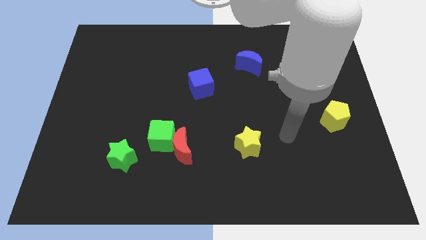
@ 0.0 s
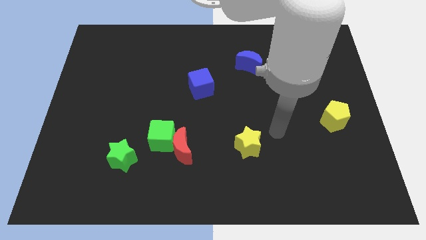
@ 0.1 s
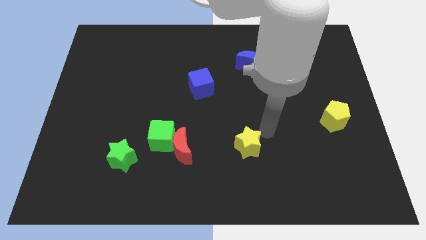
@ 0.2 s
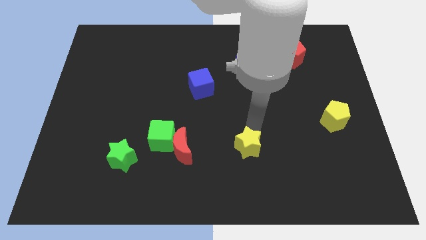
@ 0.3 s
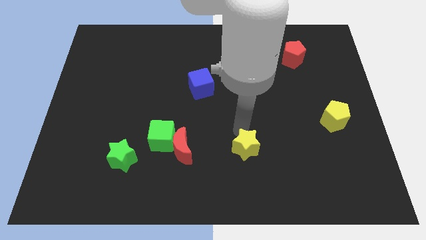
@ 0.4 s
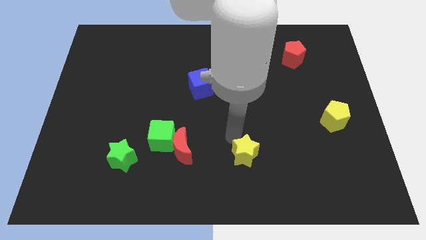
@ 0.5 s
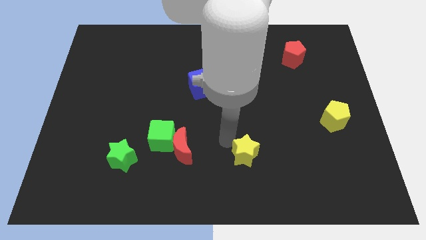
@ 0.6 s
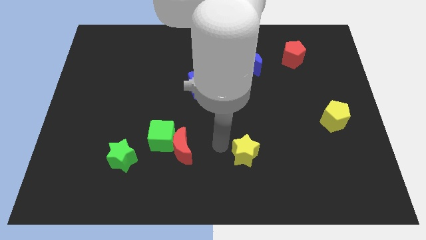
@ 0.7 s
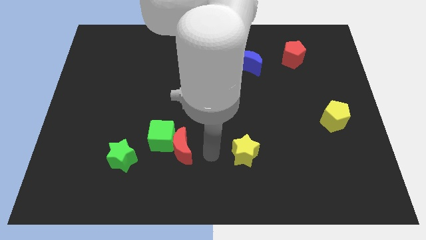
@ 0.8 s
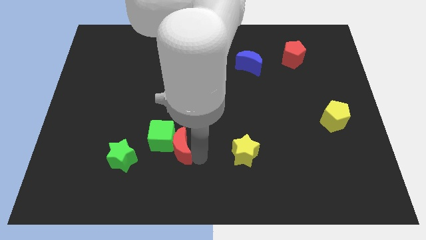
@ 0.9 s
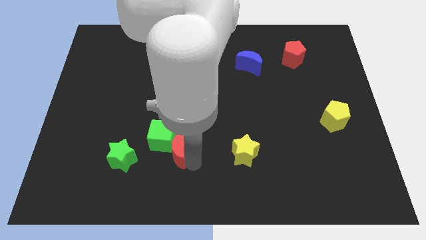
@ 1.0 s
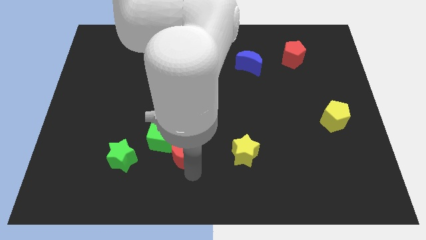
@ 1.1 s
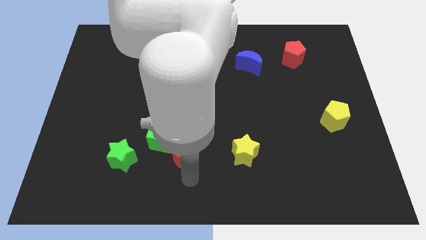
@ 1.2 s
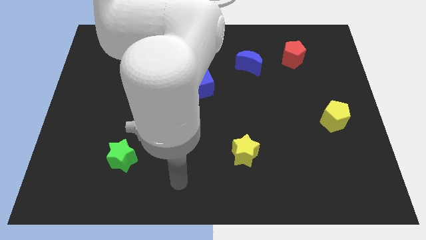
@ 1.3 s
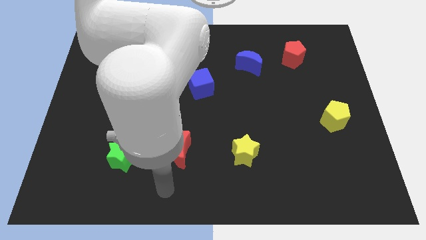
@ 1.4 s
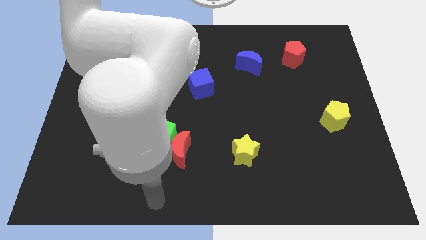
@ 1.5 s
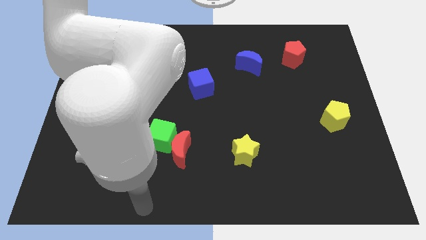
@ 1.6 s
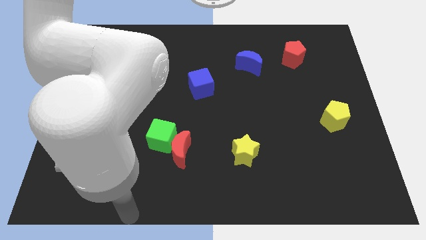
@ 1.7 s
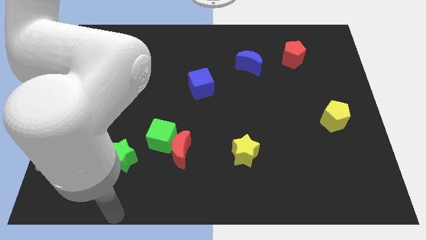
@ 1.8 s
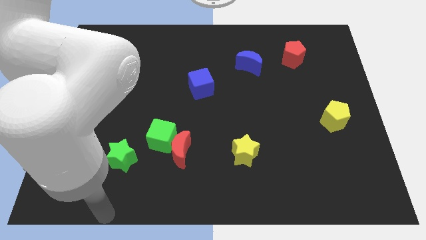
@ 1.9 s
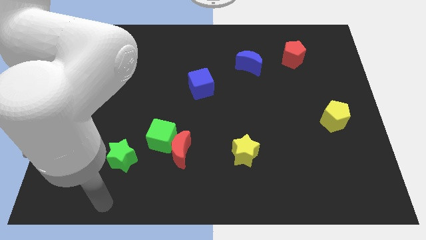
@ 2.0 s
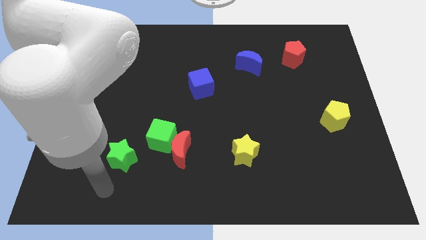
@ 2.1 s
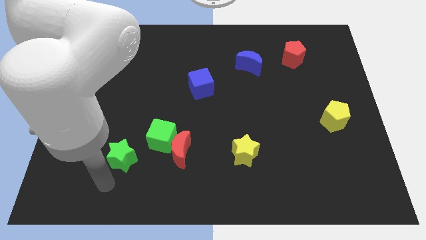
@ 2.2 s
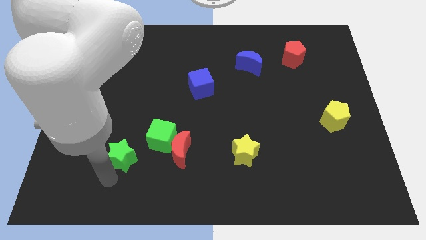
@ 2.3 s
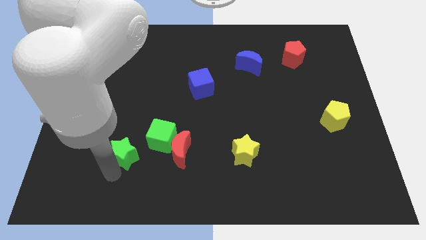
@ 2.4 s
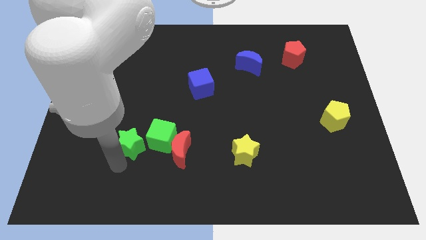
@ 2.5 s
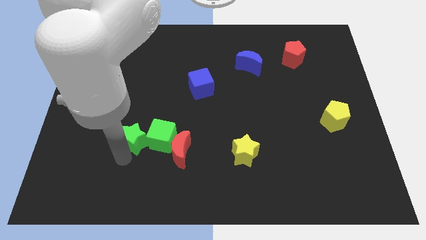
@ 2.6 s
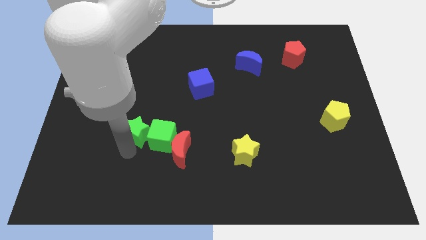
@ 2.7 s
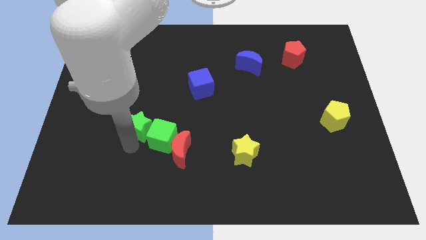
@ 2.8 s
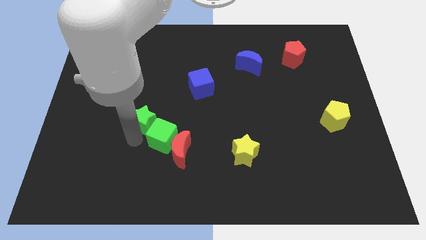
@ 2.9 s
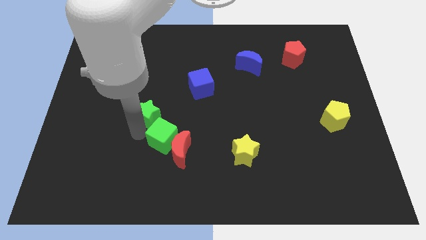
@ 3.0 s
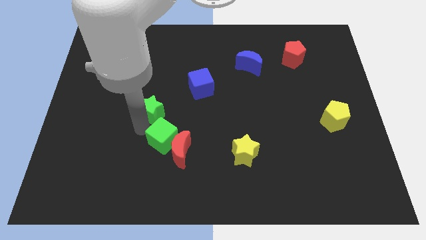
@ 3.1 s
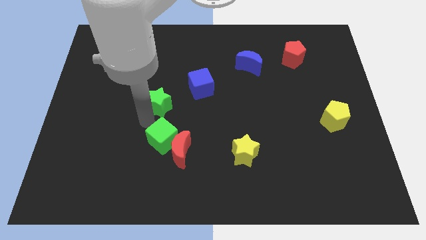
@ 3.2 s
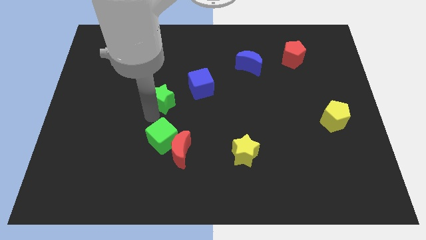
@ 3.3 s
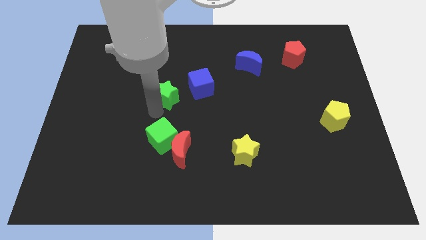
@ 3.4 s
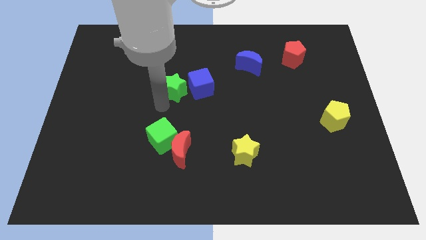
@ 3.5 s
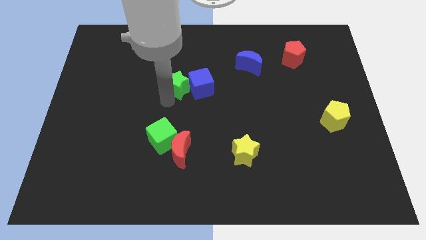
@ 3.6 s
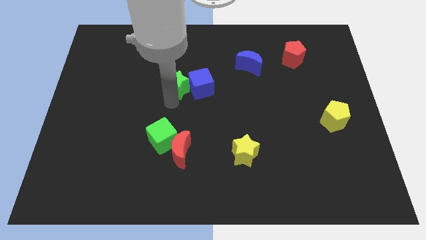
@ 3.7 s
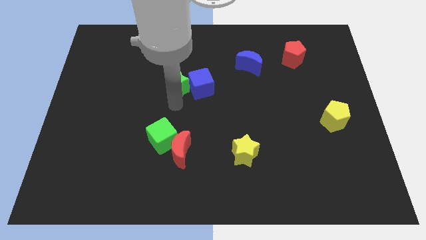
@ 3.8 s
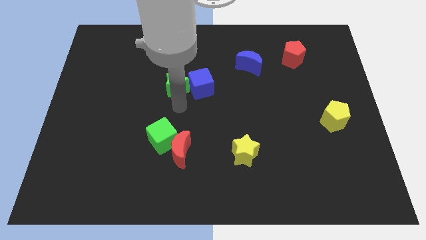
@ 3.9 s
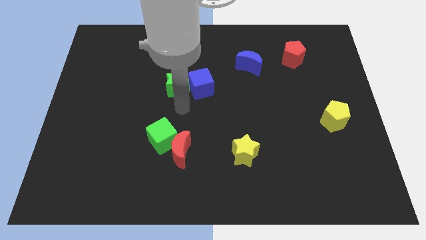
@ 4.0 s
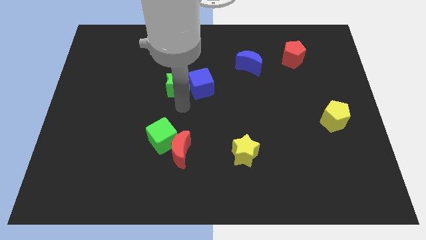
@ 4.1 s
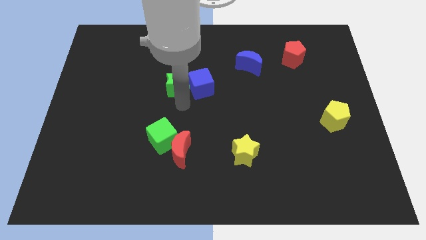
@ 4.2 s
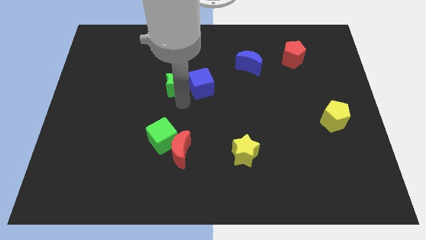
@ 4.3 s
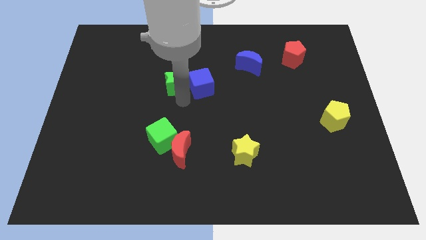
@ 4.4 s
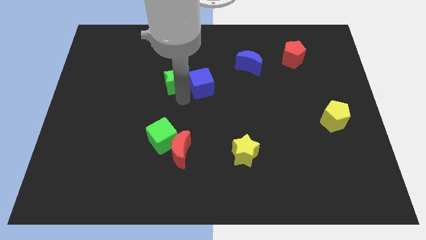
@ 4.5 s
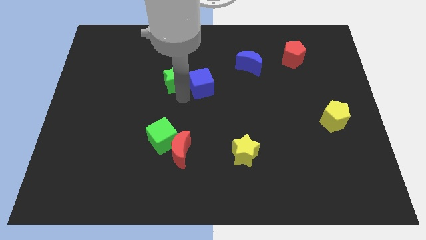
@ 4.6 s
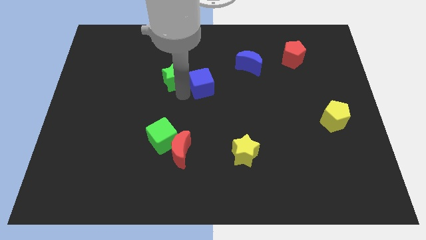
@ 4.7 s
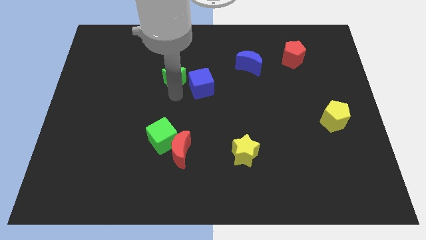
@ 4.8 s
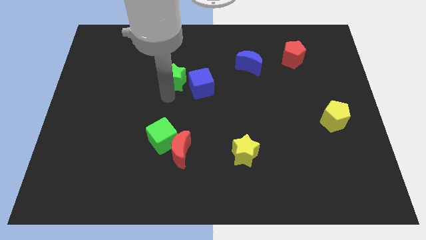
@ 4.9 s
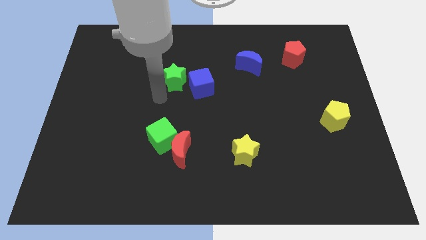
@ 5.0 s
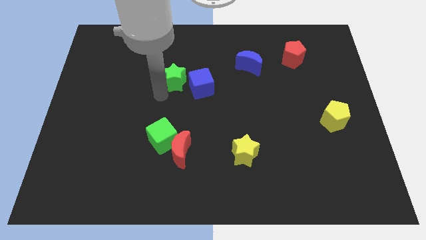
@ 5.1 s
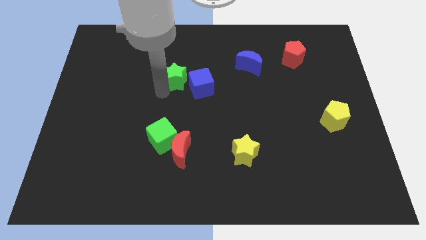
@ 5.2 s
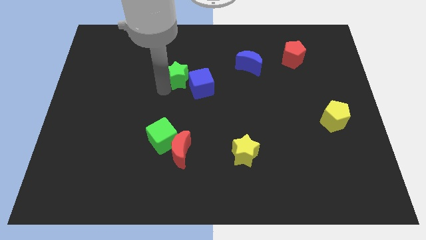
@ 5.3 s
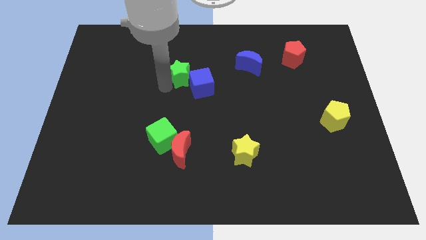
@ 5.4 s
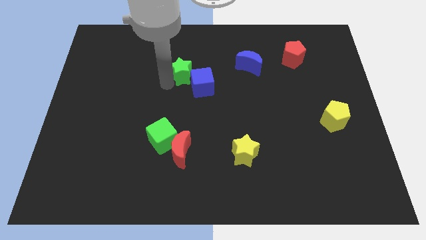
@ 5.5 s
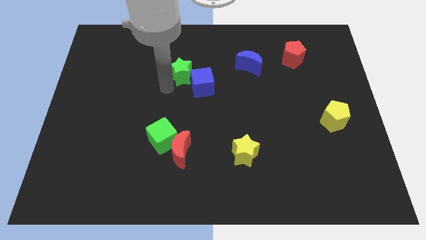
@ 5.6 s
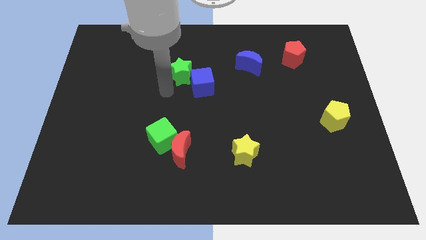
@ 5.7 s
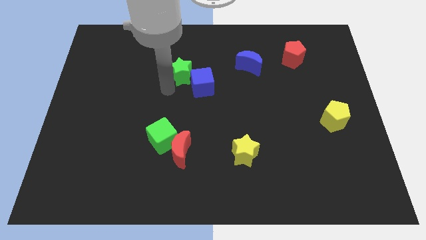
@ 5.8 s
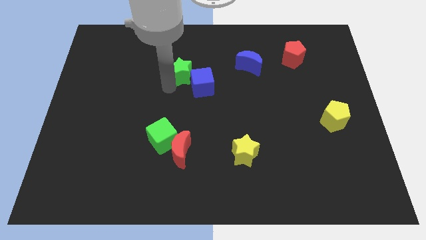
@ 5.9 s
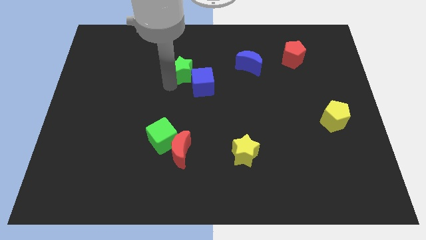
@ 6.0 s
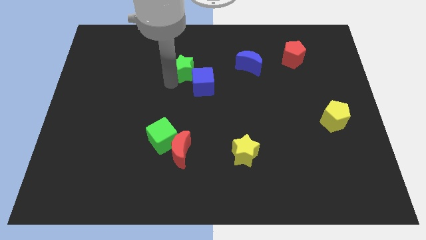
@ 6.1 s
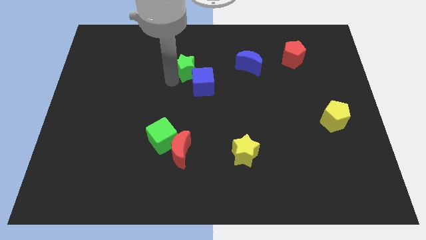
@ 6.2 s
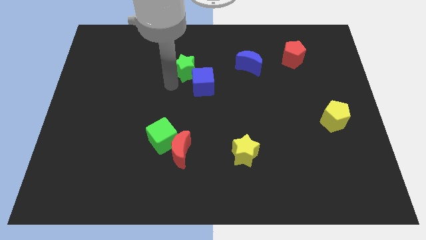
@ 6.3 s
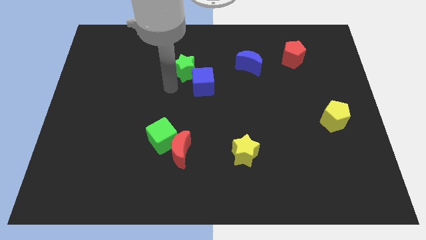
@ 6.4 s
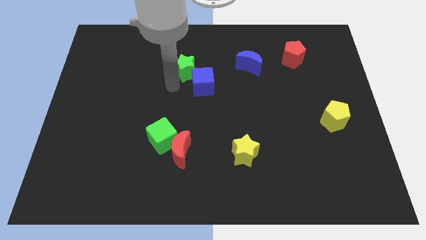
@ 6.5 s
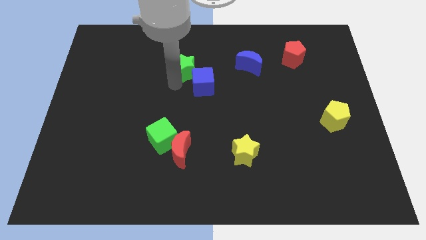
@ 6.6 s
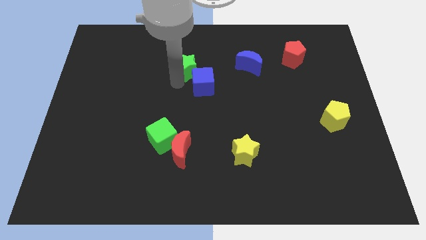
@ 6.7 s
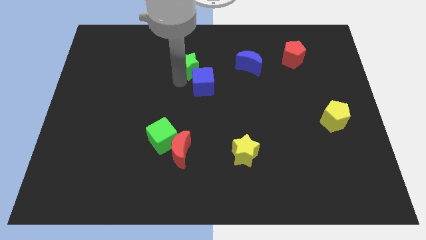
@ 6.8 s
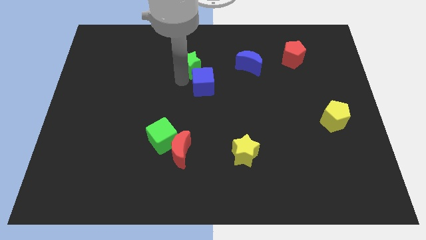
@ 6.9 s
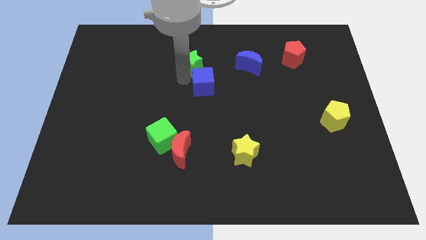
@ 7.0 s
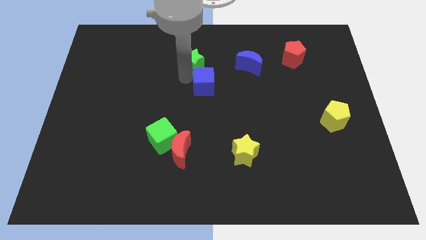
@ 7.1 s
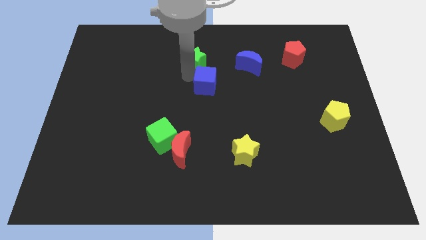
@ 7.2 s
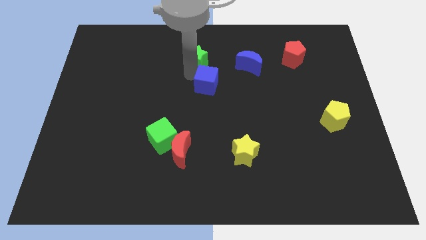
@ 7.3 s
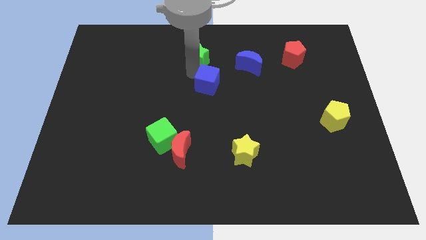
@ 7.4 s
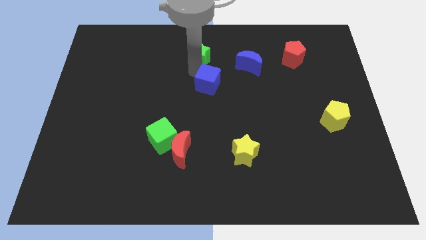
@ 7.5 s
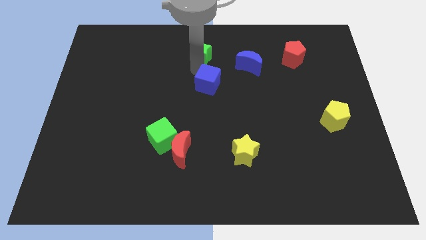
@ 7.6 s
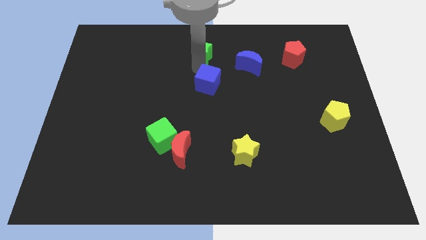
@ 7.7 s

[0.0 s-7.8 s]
put the green star to the top
